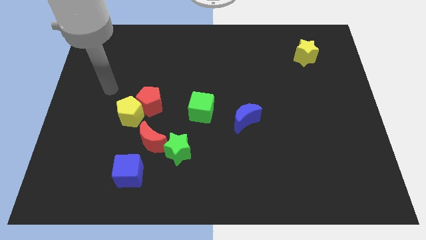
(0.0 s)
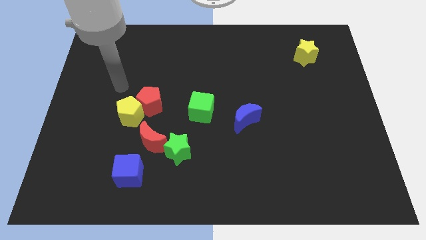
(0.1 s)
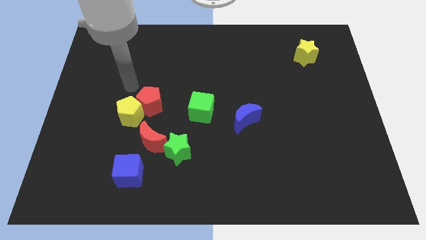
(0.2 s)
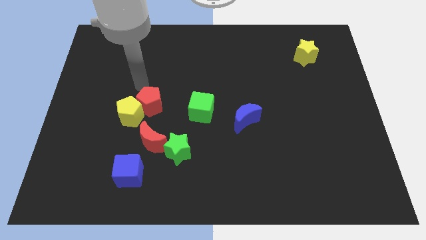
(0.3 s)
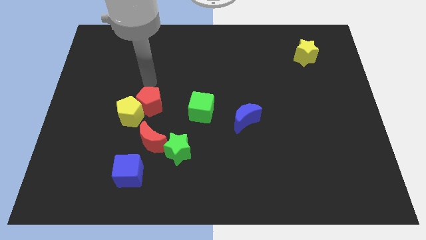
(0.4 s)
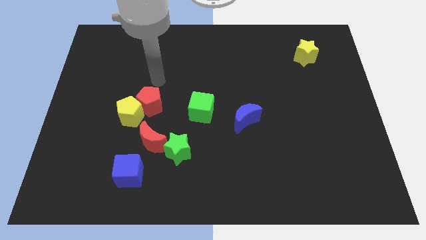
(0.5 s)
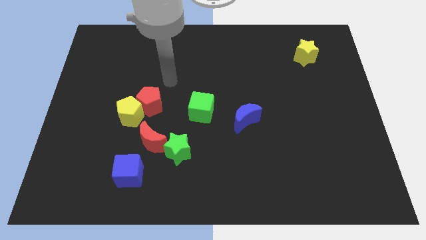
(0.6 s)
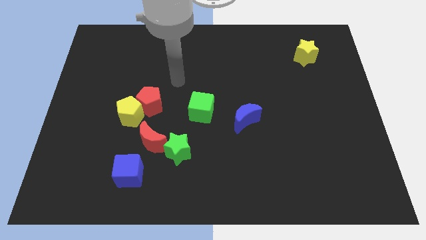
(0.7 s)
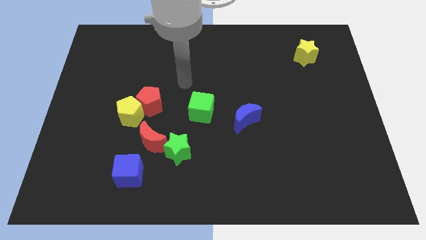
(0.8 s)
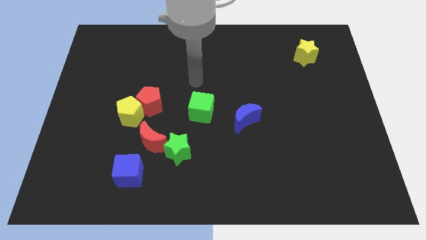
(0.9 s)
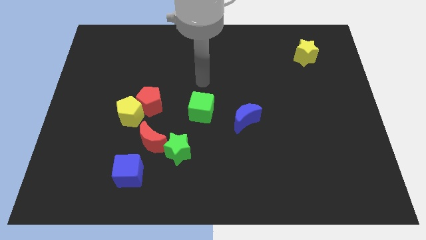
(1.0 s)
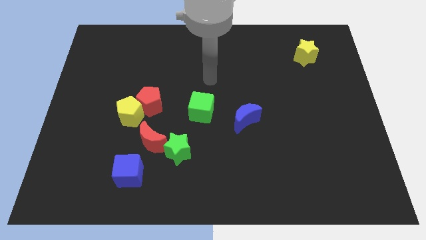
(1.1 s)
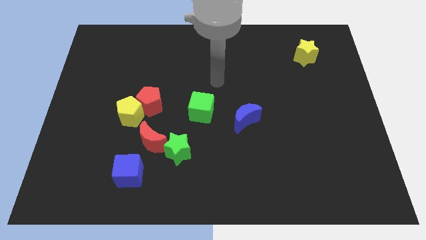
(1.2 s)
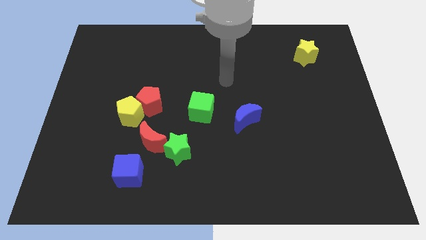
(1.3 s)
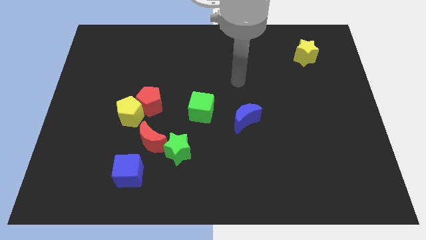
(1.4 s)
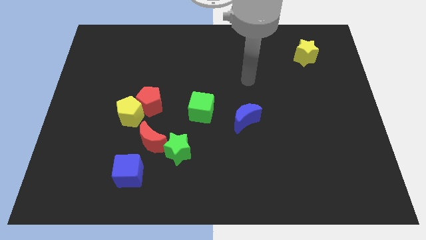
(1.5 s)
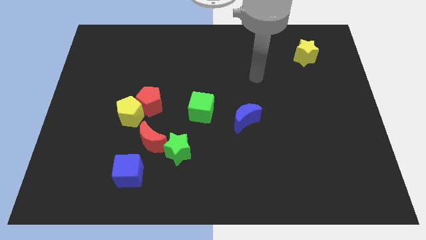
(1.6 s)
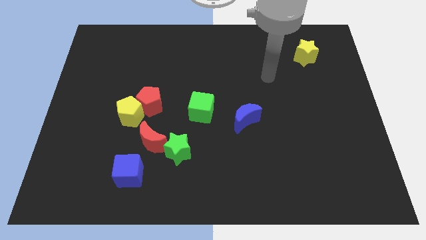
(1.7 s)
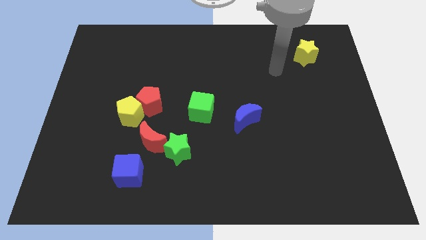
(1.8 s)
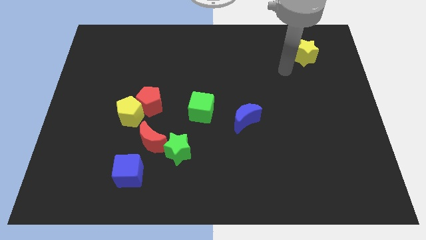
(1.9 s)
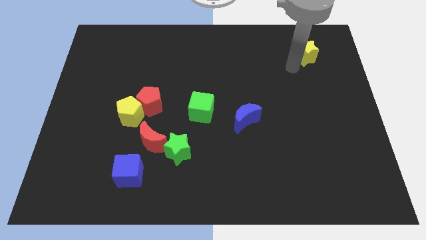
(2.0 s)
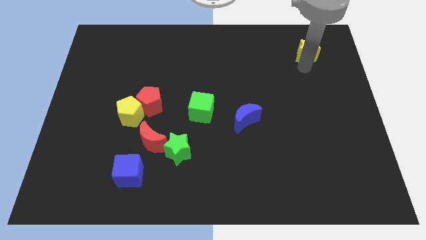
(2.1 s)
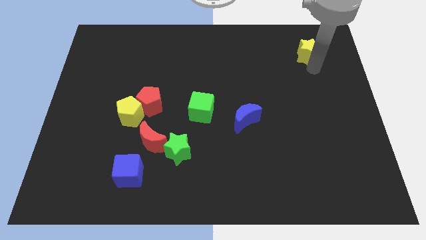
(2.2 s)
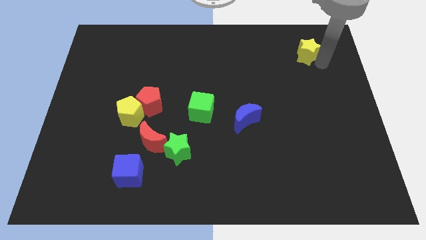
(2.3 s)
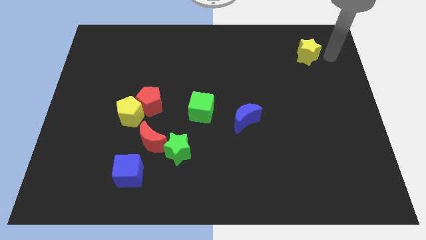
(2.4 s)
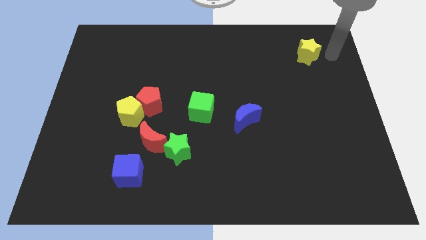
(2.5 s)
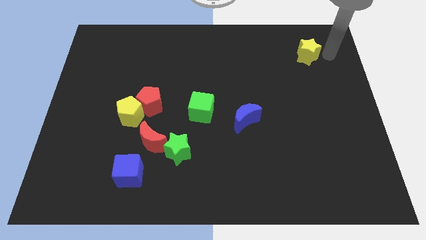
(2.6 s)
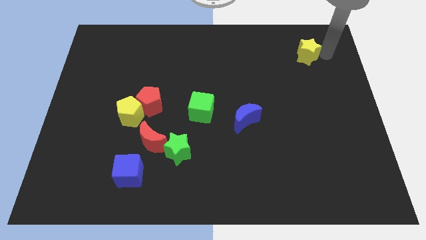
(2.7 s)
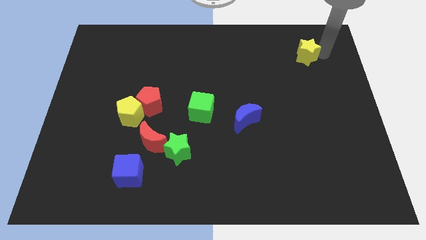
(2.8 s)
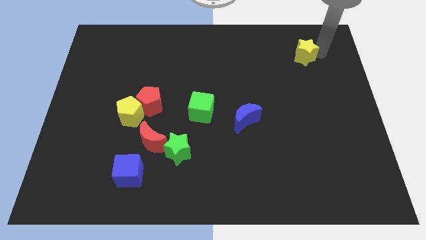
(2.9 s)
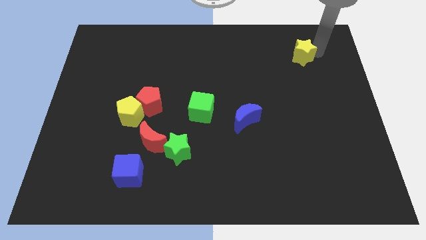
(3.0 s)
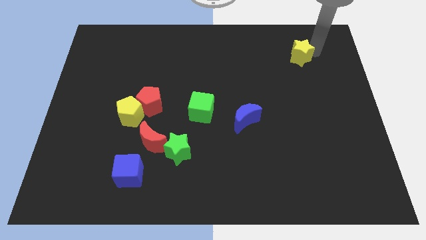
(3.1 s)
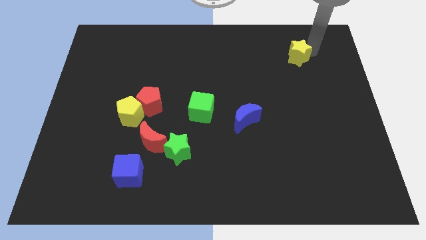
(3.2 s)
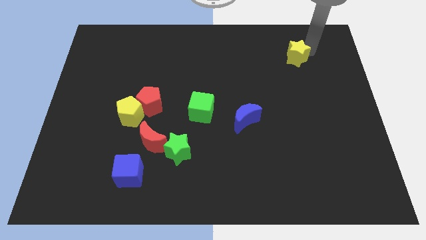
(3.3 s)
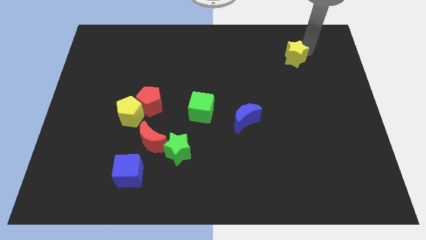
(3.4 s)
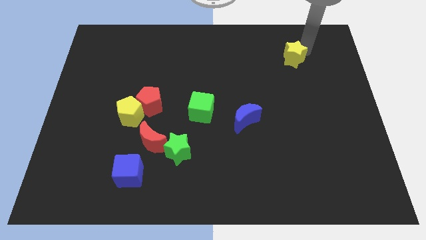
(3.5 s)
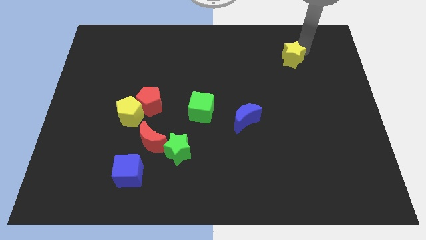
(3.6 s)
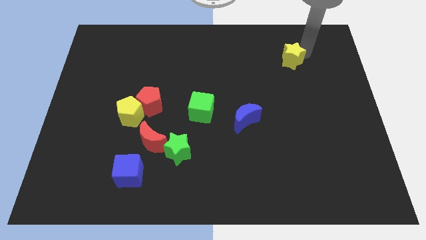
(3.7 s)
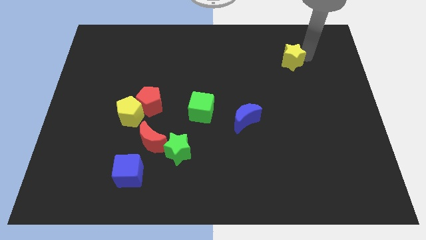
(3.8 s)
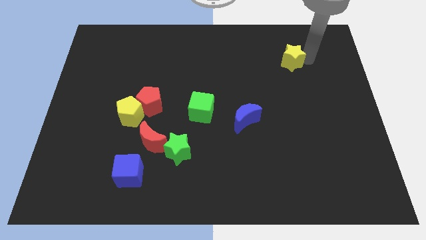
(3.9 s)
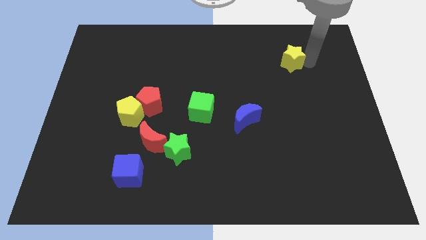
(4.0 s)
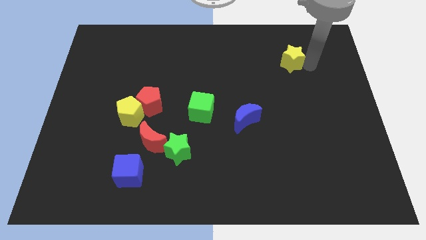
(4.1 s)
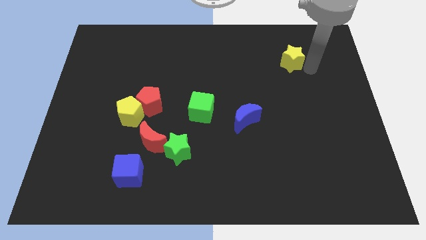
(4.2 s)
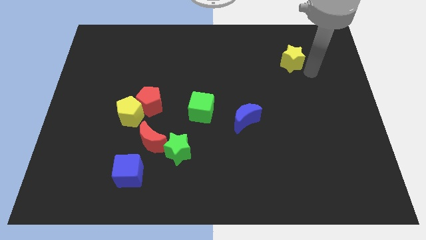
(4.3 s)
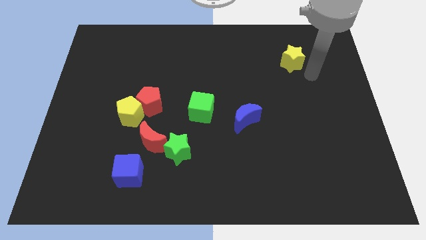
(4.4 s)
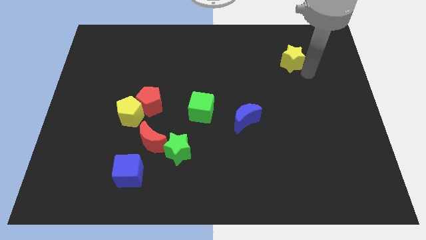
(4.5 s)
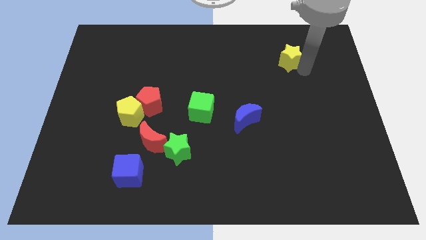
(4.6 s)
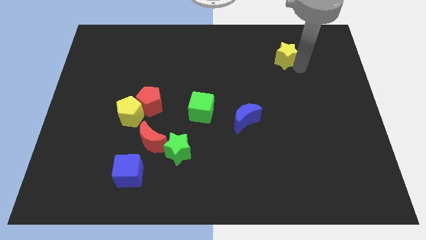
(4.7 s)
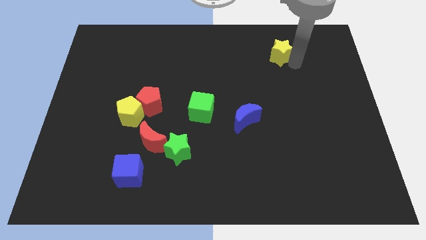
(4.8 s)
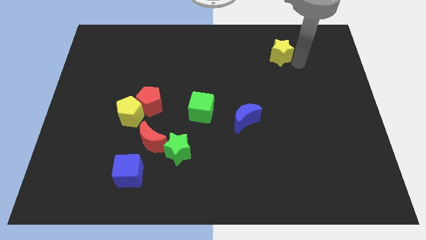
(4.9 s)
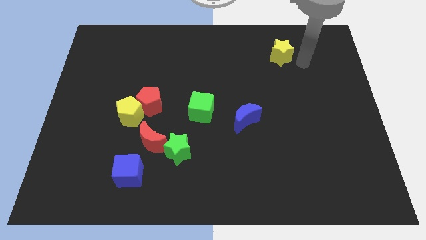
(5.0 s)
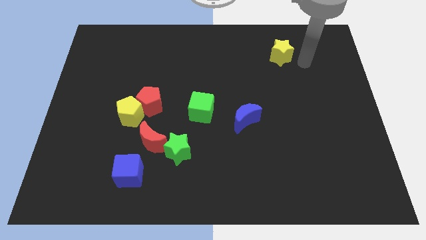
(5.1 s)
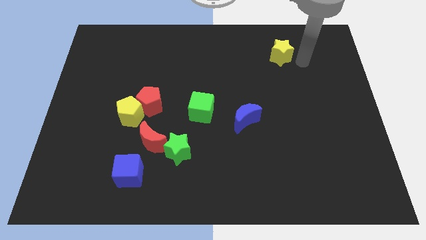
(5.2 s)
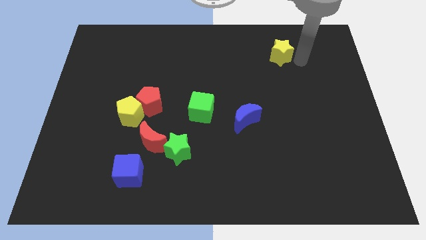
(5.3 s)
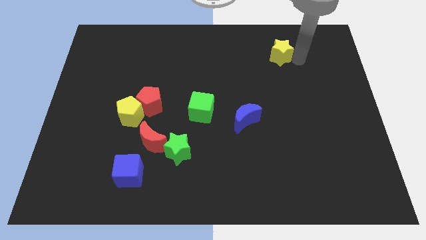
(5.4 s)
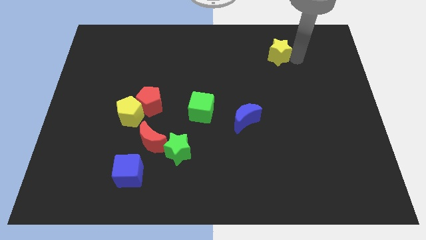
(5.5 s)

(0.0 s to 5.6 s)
slightly push the yellow star to the left

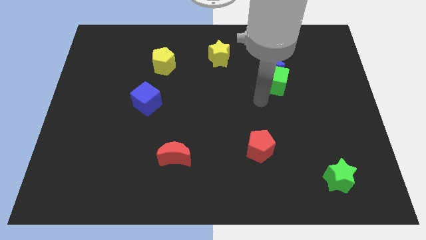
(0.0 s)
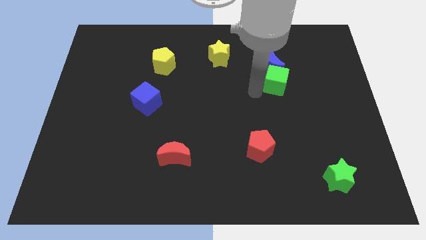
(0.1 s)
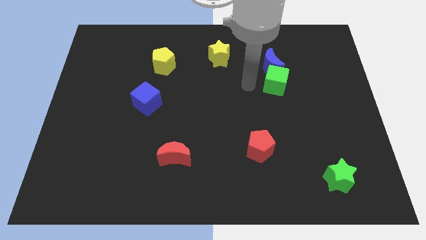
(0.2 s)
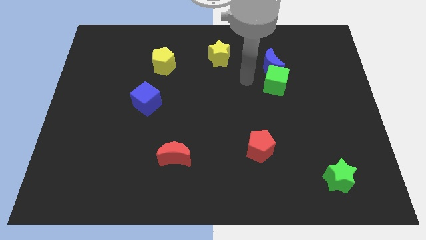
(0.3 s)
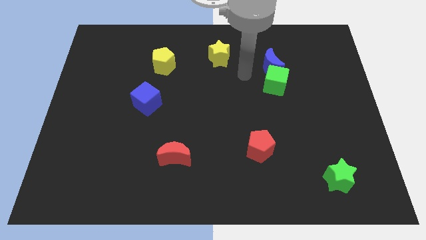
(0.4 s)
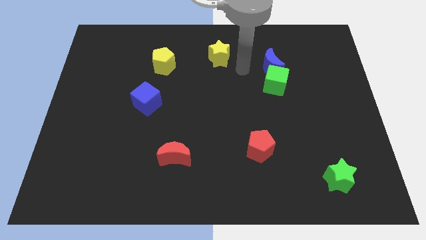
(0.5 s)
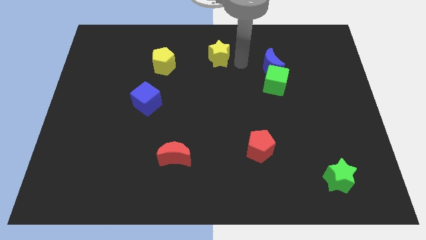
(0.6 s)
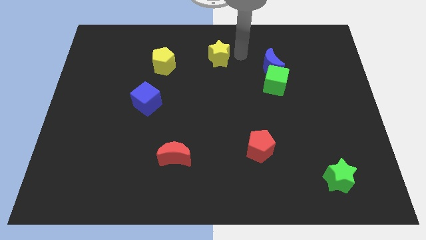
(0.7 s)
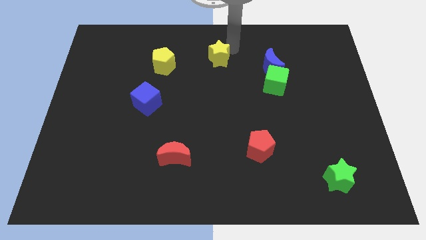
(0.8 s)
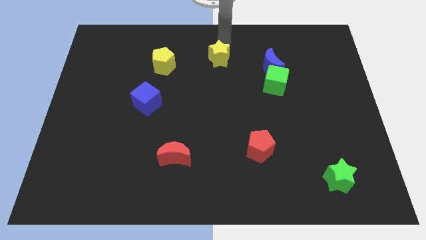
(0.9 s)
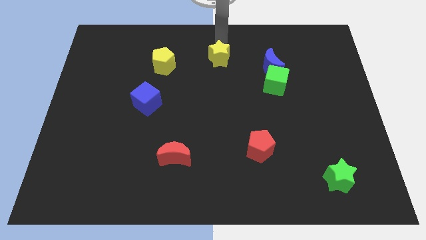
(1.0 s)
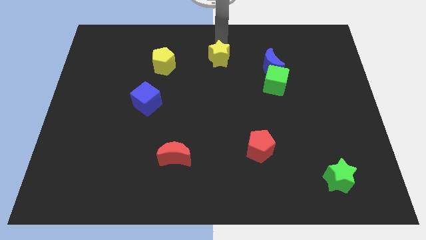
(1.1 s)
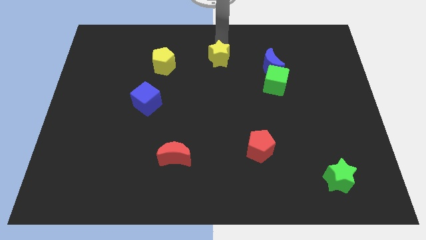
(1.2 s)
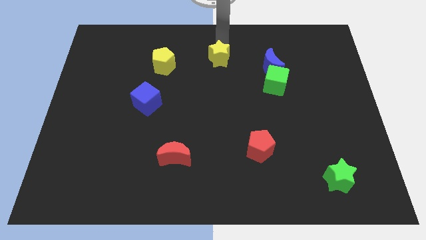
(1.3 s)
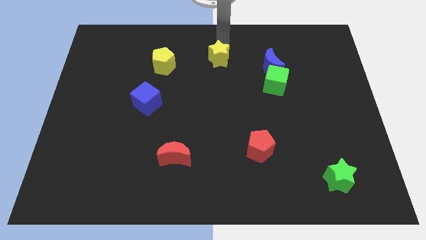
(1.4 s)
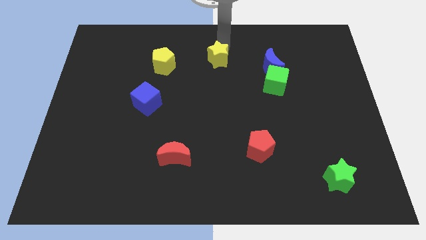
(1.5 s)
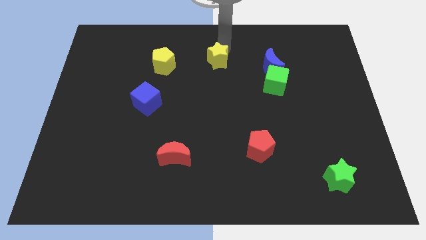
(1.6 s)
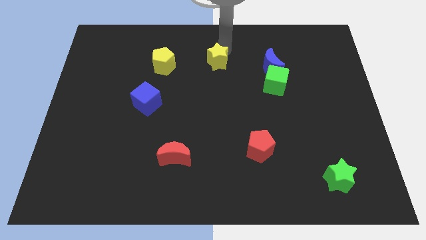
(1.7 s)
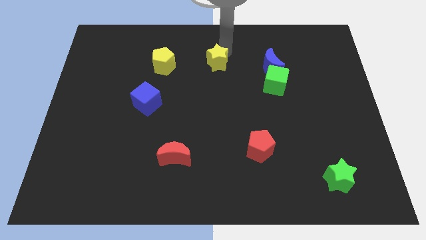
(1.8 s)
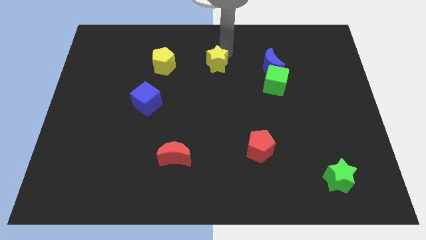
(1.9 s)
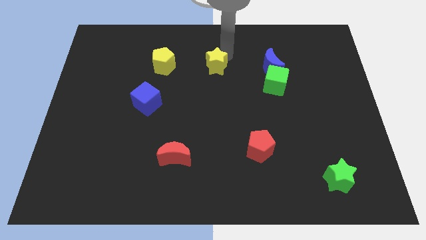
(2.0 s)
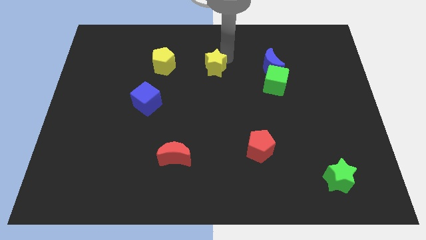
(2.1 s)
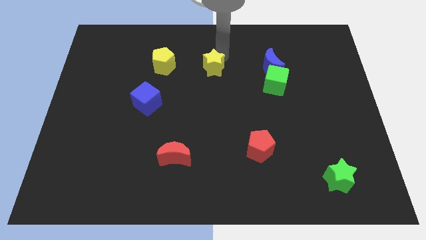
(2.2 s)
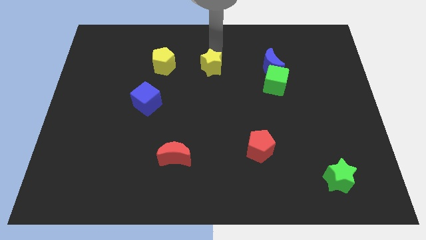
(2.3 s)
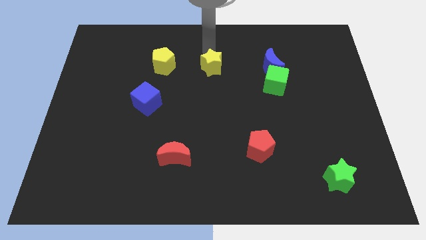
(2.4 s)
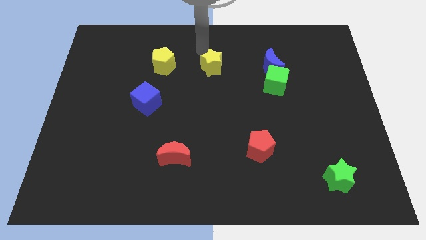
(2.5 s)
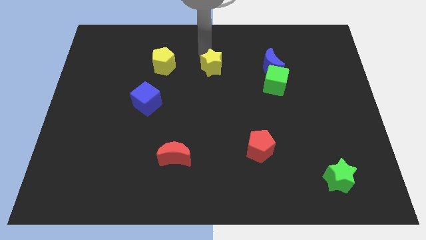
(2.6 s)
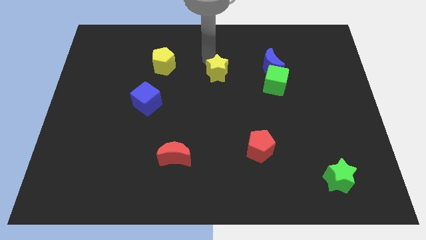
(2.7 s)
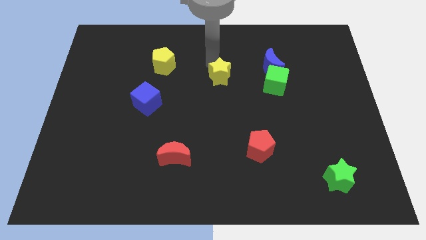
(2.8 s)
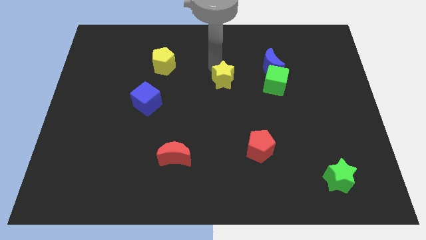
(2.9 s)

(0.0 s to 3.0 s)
move the yellow star a bit down
